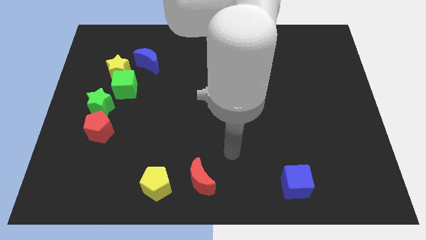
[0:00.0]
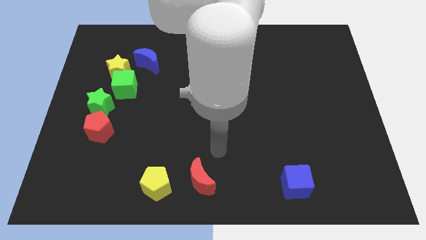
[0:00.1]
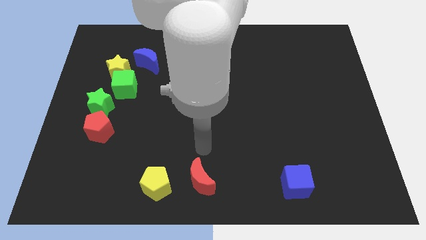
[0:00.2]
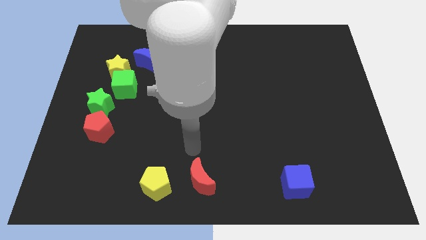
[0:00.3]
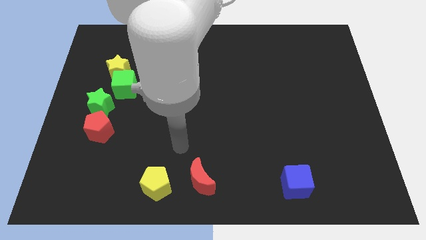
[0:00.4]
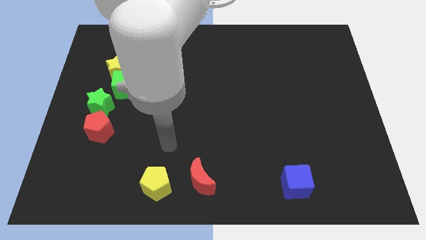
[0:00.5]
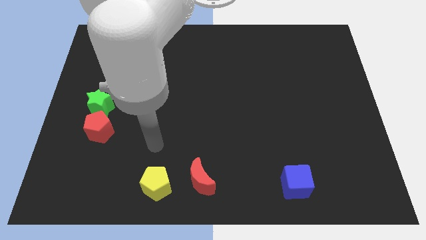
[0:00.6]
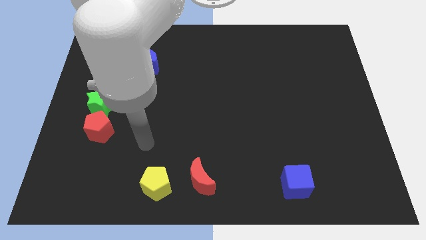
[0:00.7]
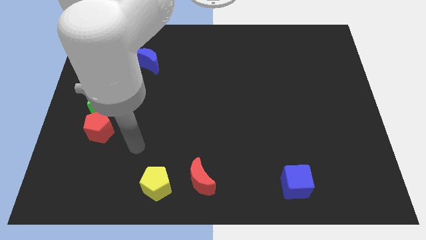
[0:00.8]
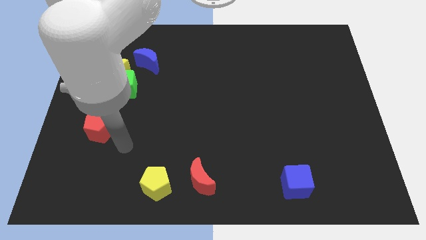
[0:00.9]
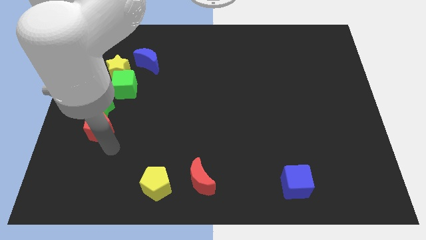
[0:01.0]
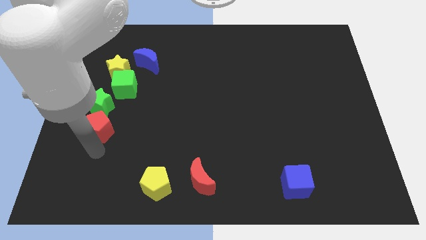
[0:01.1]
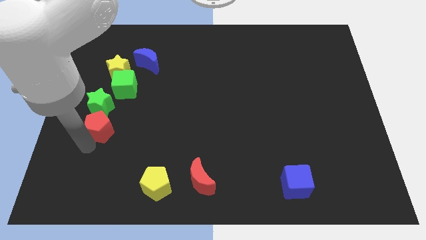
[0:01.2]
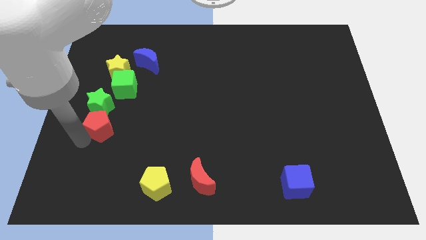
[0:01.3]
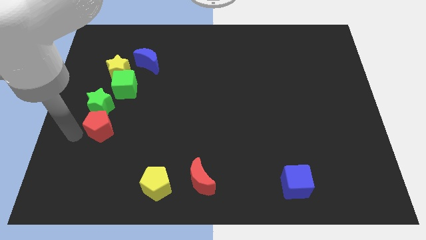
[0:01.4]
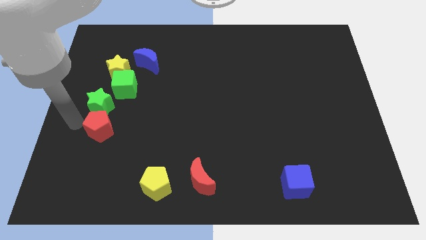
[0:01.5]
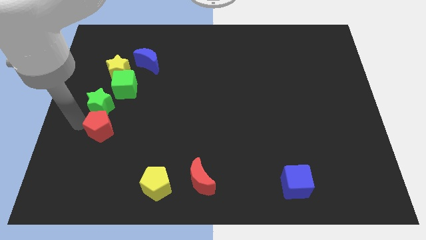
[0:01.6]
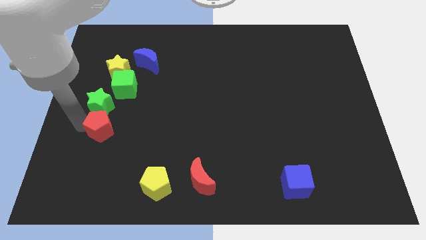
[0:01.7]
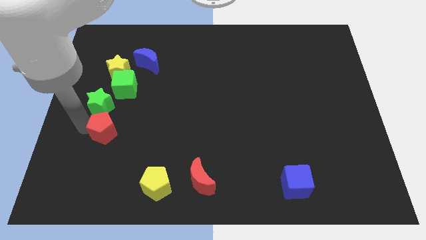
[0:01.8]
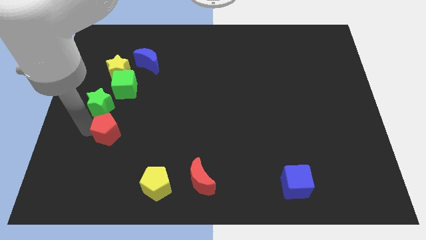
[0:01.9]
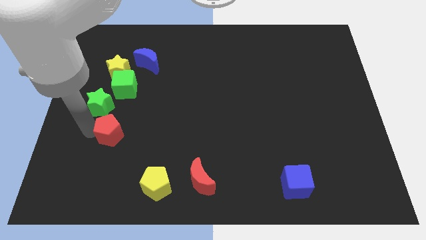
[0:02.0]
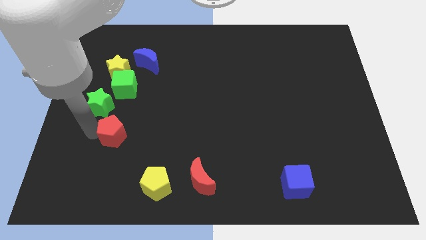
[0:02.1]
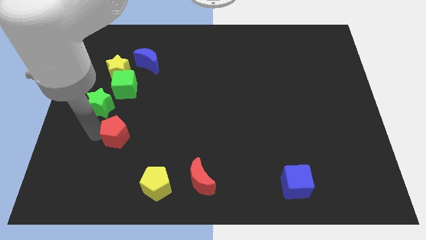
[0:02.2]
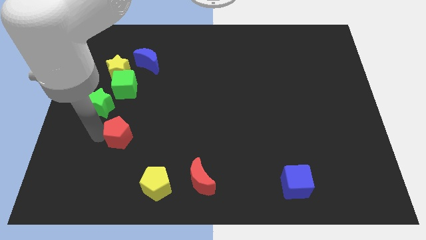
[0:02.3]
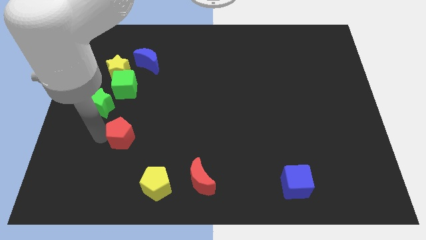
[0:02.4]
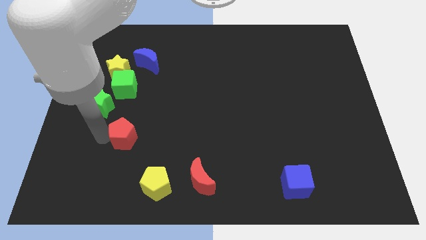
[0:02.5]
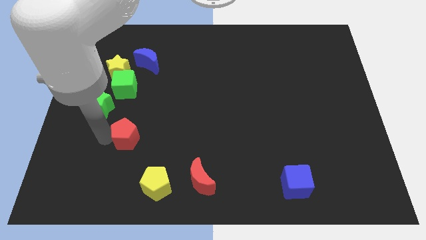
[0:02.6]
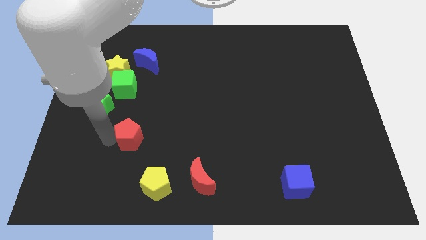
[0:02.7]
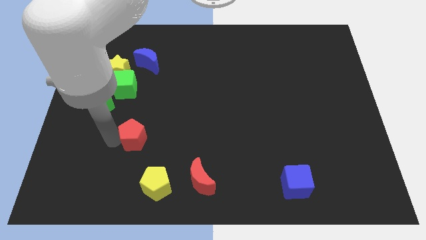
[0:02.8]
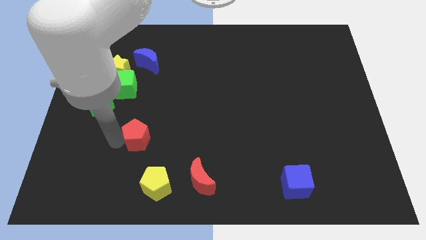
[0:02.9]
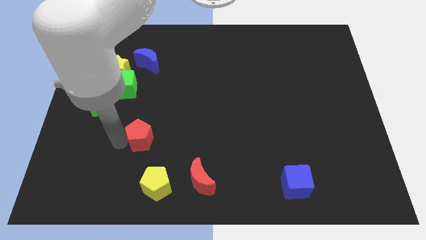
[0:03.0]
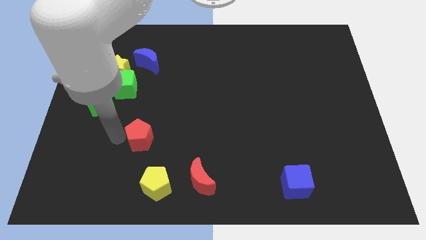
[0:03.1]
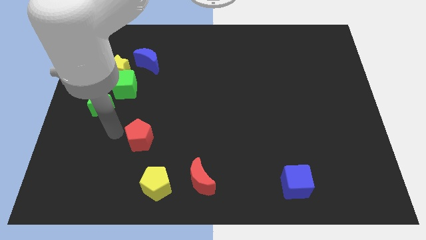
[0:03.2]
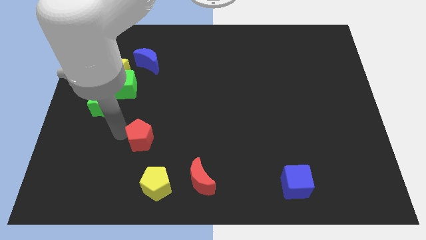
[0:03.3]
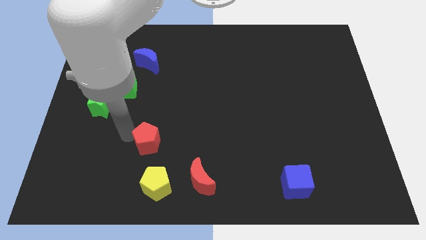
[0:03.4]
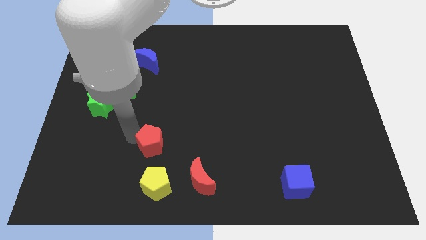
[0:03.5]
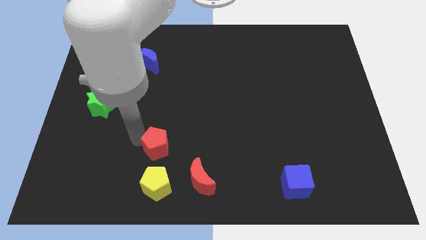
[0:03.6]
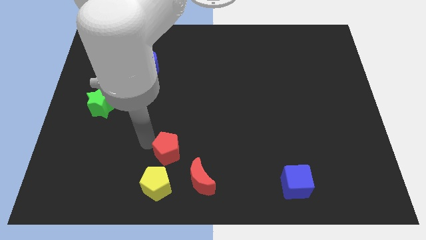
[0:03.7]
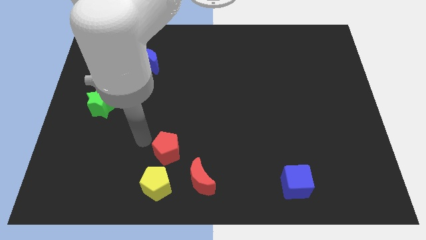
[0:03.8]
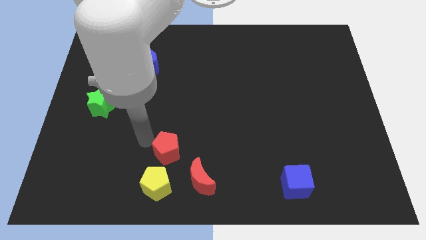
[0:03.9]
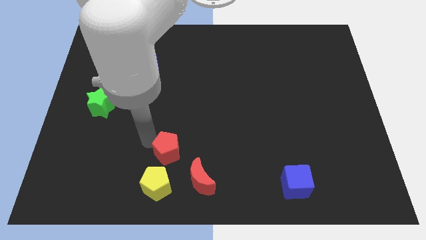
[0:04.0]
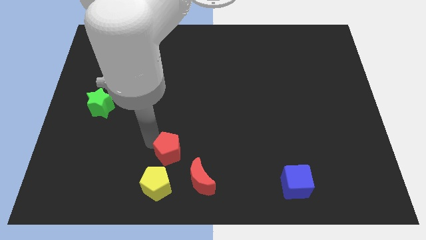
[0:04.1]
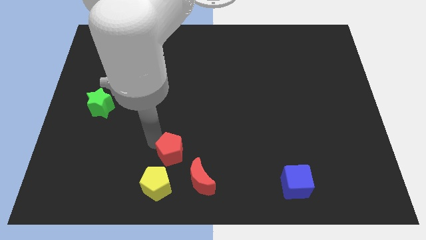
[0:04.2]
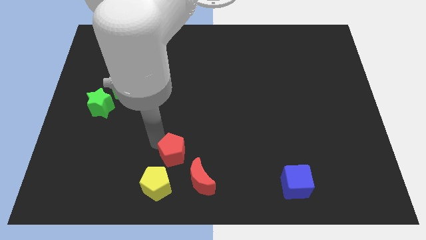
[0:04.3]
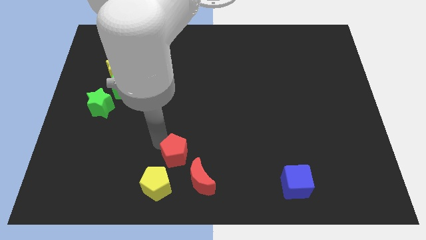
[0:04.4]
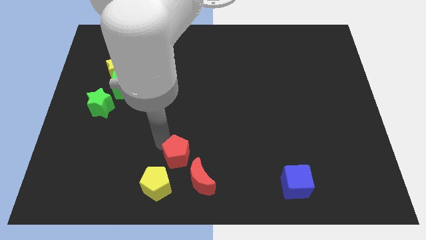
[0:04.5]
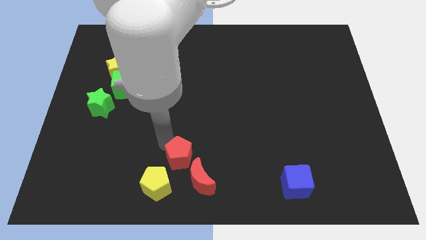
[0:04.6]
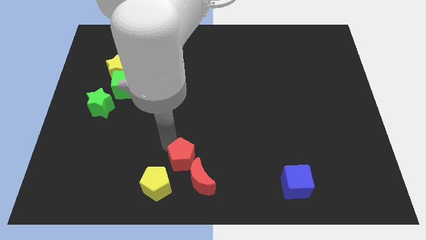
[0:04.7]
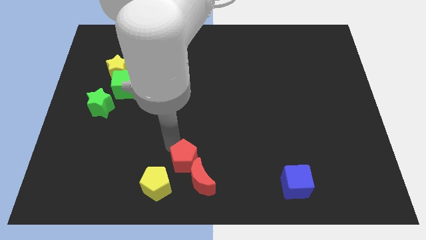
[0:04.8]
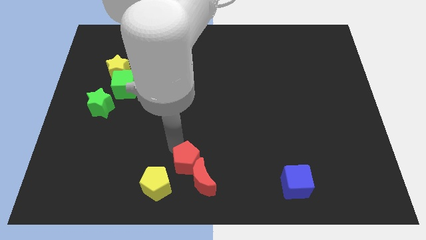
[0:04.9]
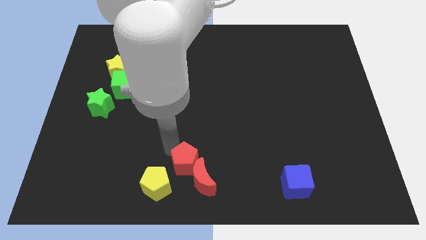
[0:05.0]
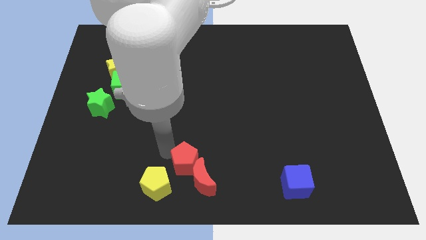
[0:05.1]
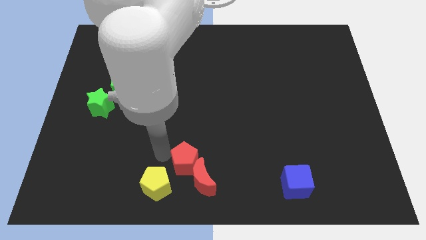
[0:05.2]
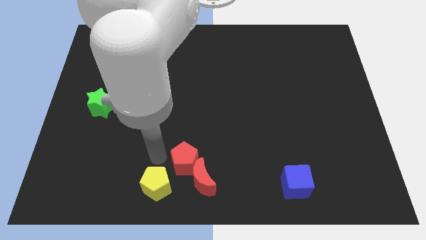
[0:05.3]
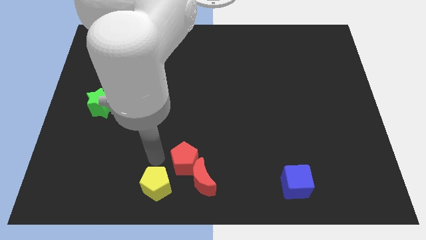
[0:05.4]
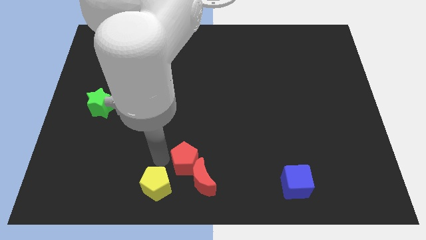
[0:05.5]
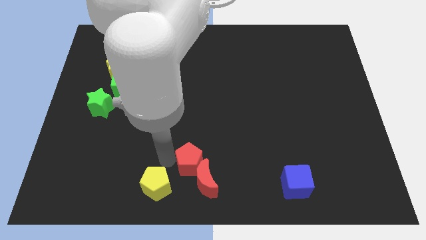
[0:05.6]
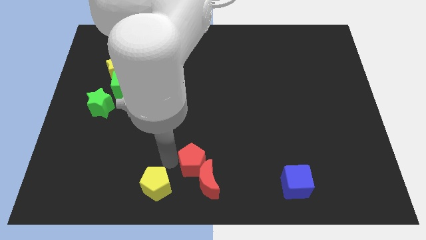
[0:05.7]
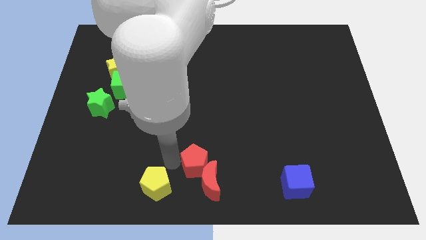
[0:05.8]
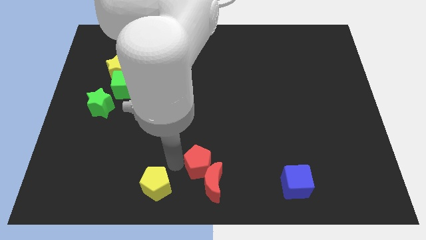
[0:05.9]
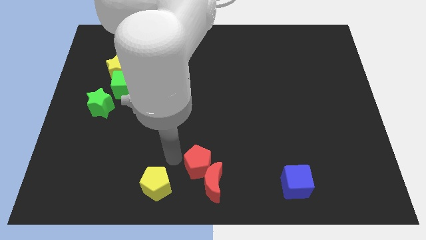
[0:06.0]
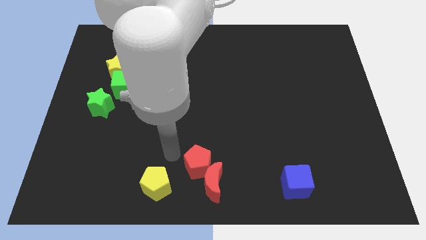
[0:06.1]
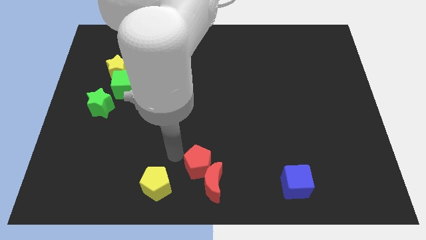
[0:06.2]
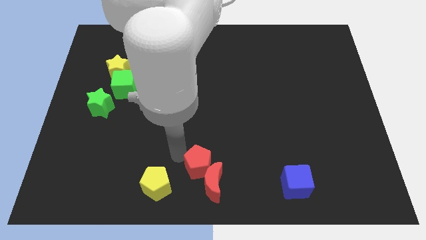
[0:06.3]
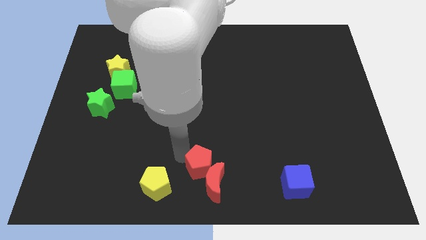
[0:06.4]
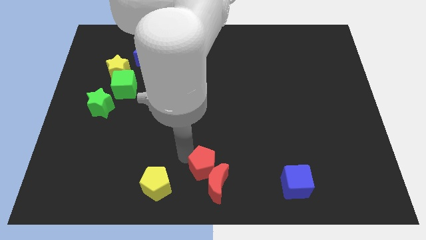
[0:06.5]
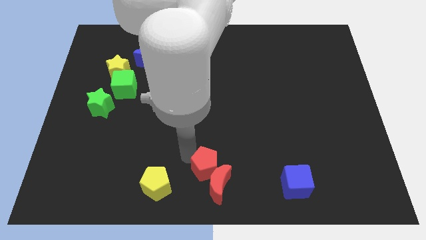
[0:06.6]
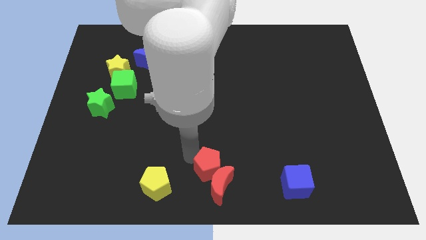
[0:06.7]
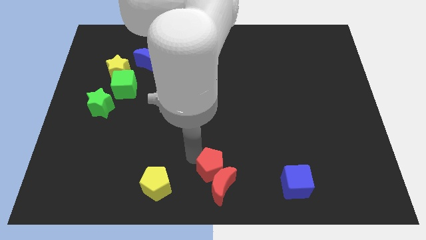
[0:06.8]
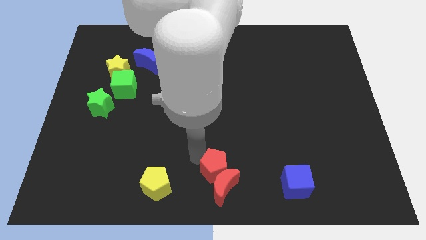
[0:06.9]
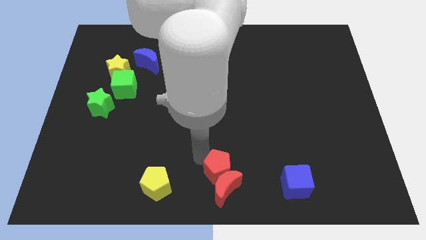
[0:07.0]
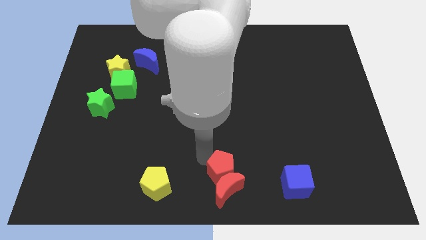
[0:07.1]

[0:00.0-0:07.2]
push the red pentagon just left of the blue cube
